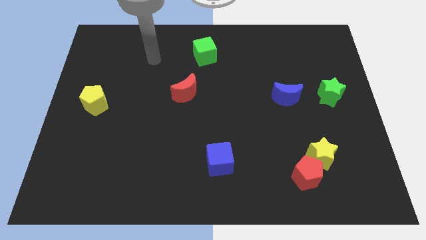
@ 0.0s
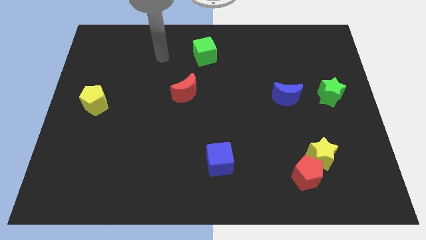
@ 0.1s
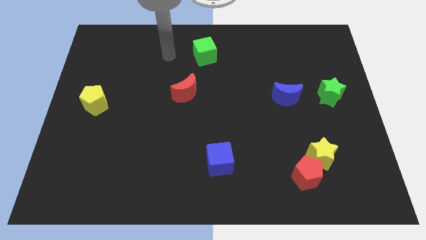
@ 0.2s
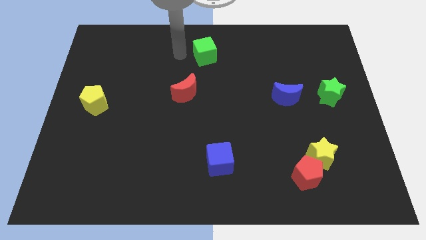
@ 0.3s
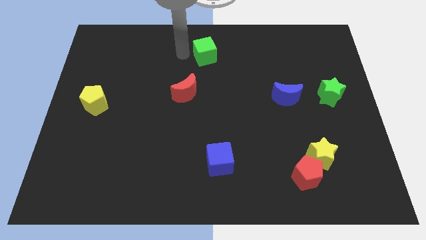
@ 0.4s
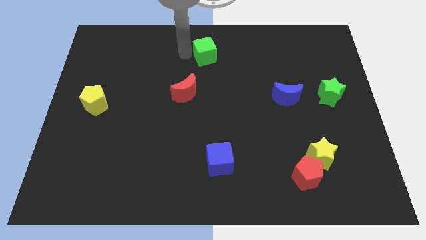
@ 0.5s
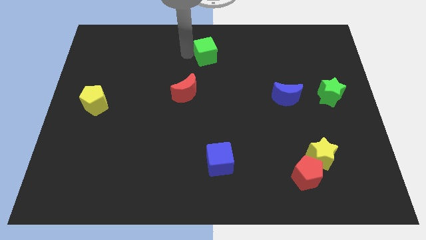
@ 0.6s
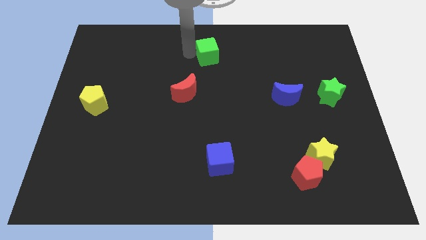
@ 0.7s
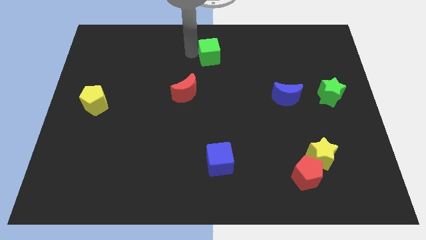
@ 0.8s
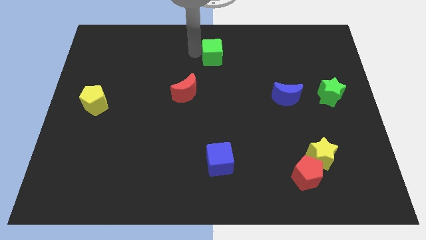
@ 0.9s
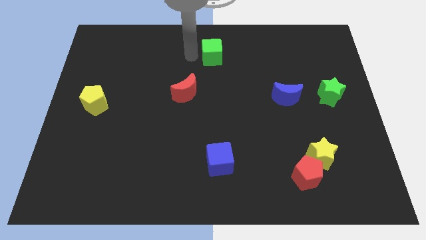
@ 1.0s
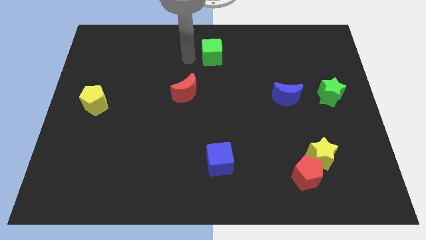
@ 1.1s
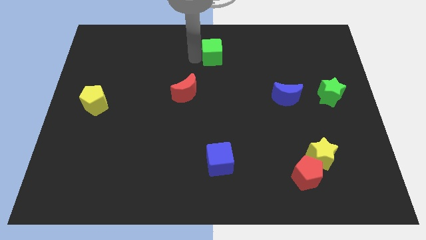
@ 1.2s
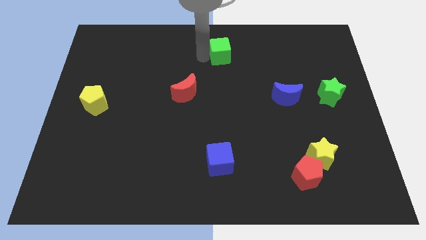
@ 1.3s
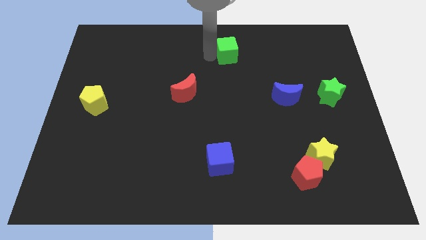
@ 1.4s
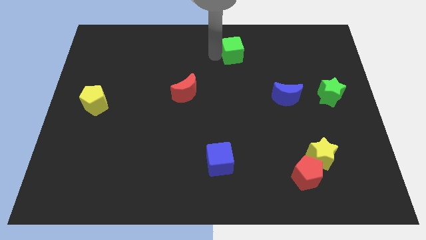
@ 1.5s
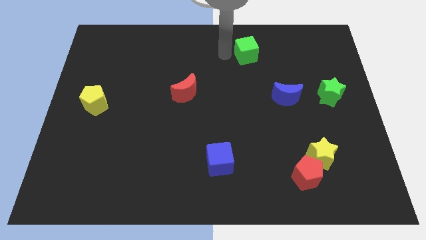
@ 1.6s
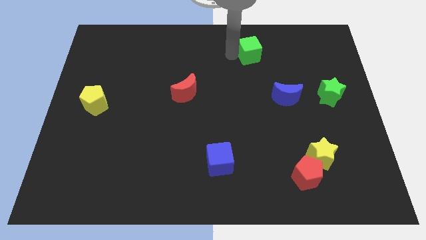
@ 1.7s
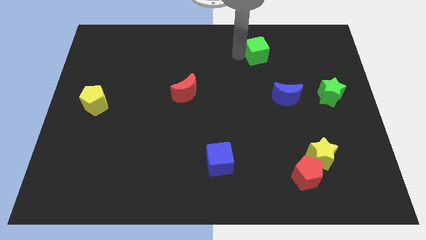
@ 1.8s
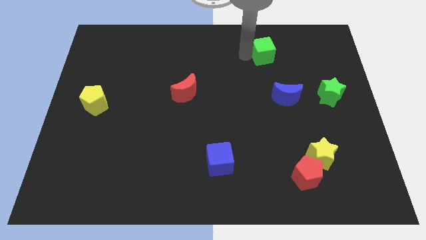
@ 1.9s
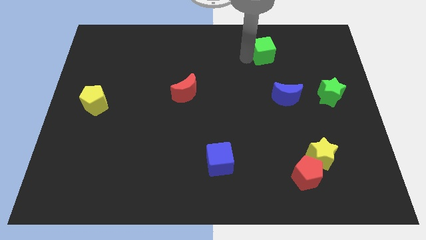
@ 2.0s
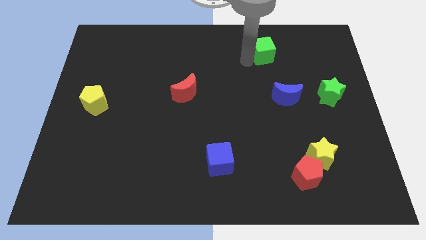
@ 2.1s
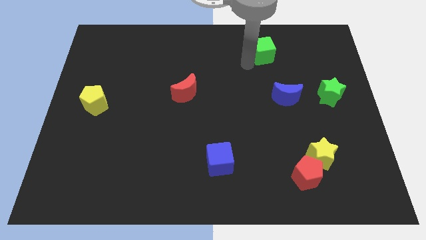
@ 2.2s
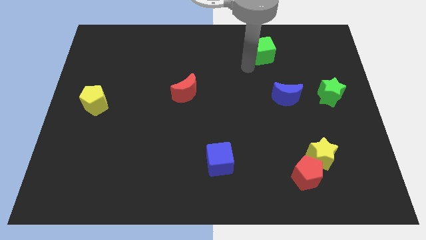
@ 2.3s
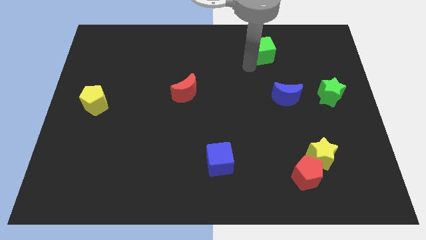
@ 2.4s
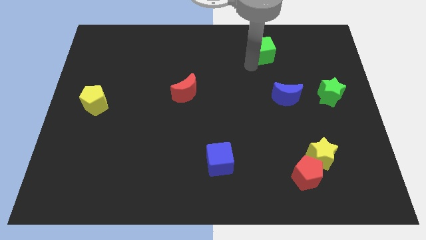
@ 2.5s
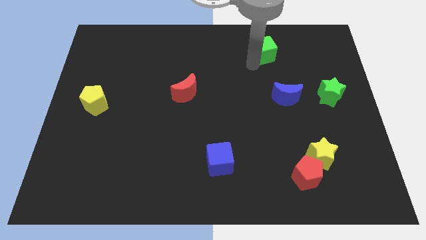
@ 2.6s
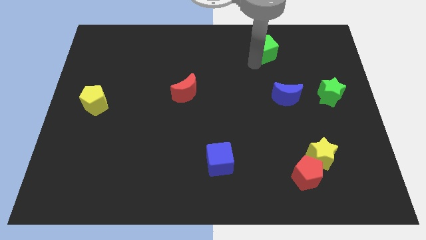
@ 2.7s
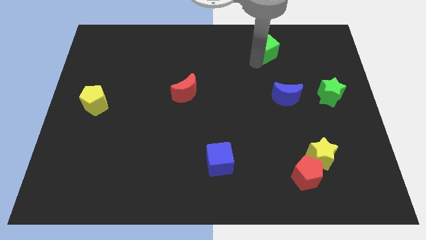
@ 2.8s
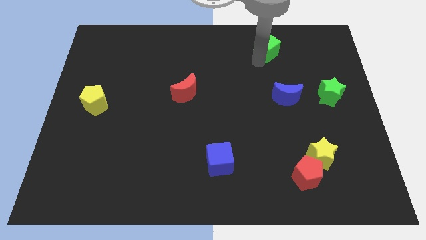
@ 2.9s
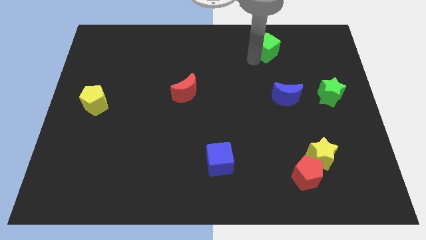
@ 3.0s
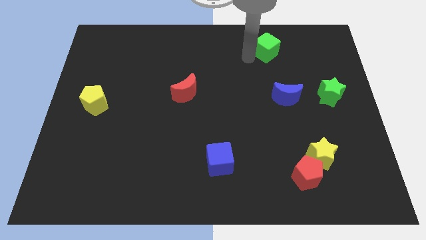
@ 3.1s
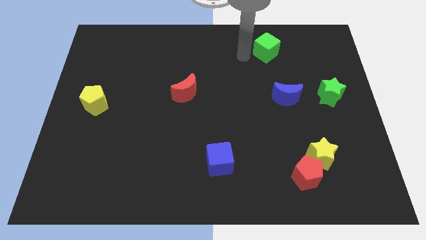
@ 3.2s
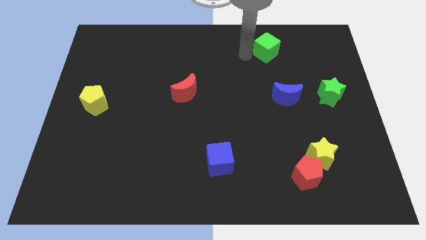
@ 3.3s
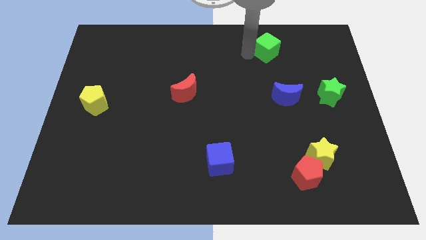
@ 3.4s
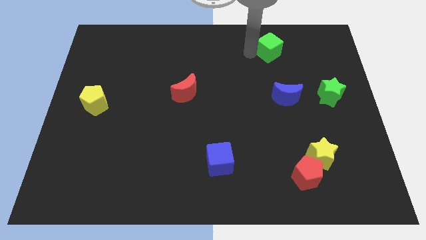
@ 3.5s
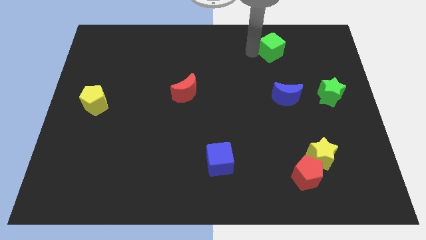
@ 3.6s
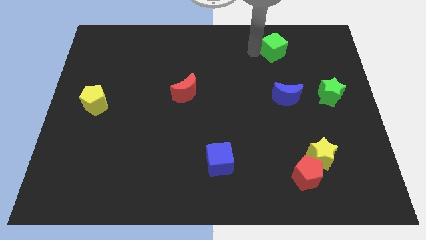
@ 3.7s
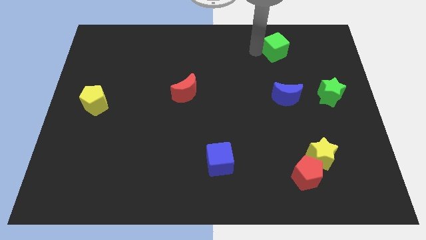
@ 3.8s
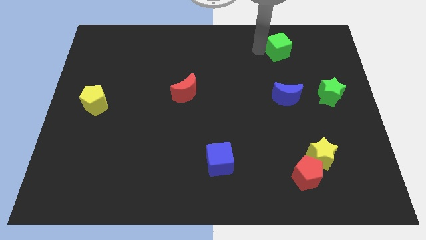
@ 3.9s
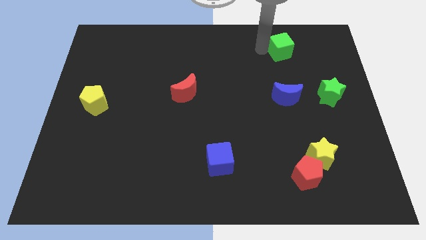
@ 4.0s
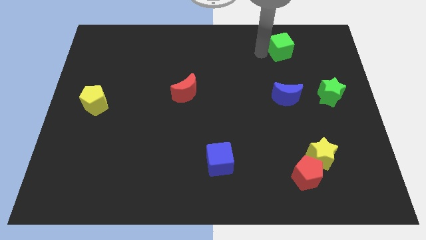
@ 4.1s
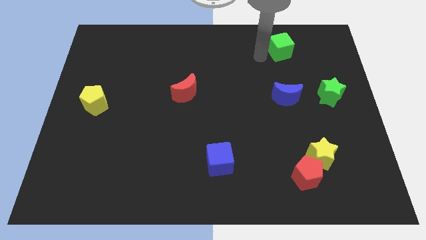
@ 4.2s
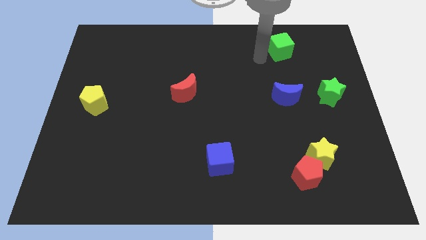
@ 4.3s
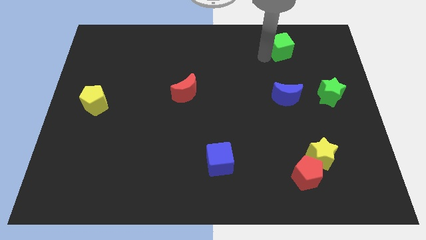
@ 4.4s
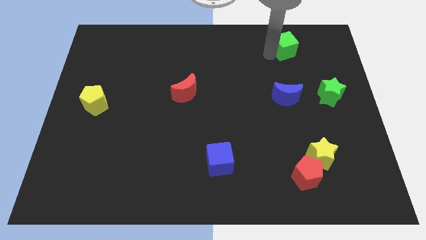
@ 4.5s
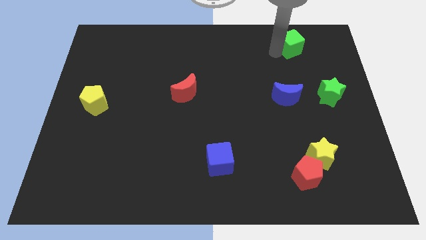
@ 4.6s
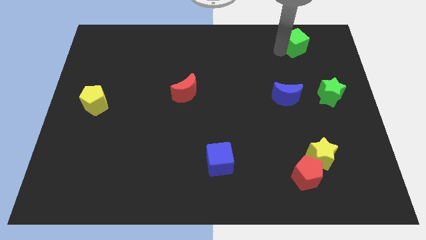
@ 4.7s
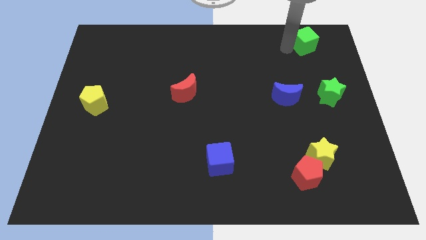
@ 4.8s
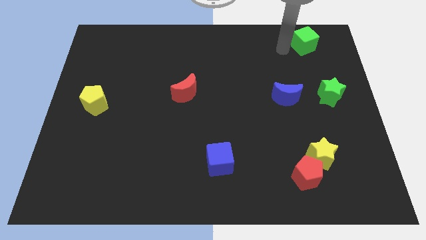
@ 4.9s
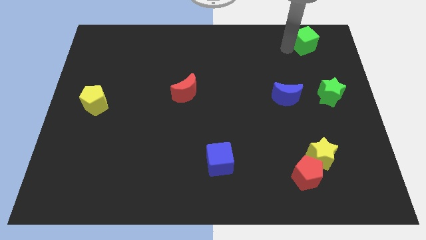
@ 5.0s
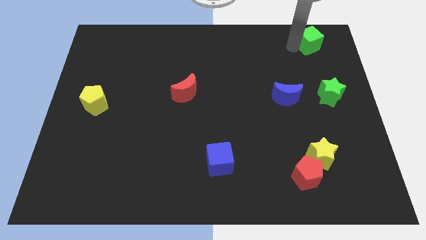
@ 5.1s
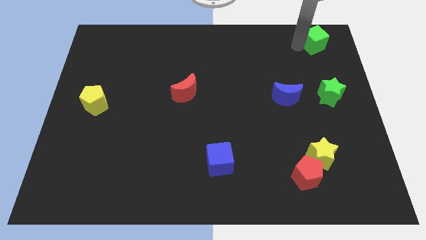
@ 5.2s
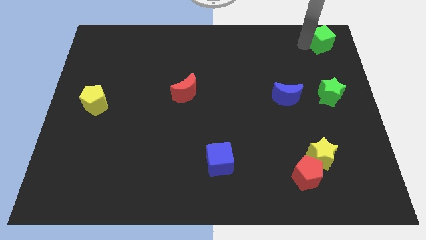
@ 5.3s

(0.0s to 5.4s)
move the green cube to the upper right corner

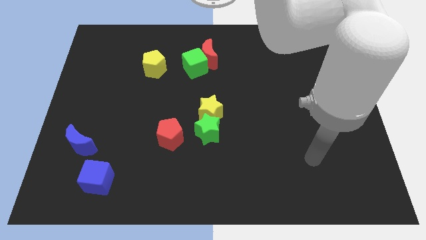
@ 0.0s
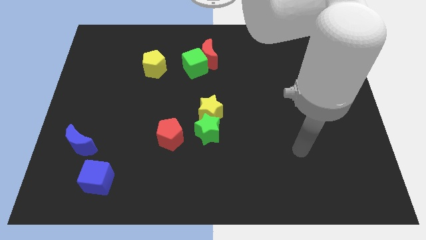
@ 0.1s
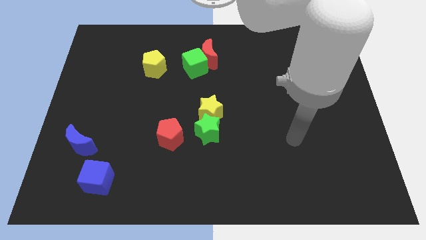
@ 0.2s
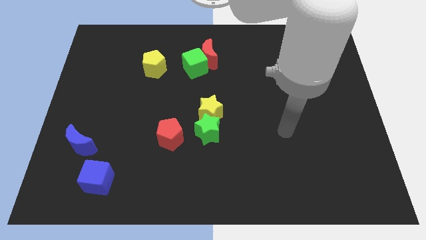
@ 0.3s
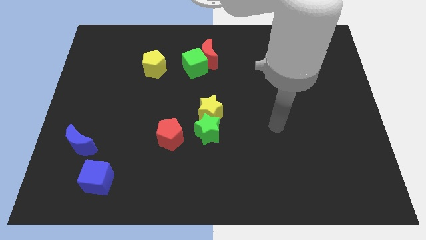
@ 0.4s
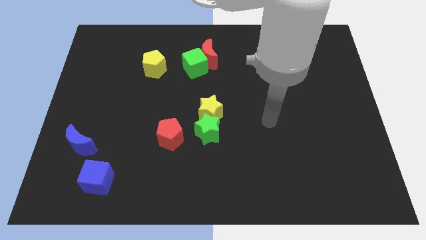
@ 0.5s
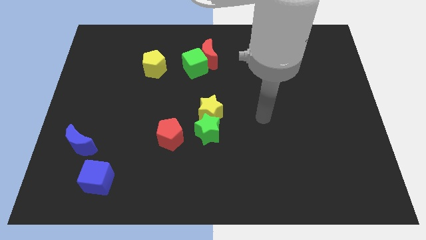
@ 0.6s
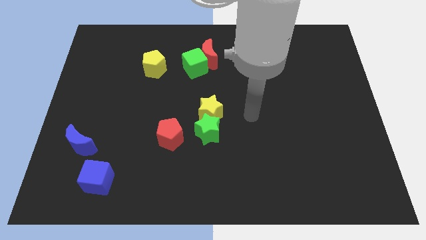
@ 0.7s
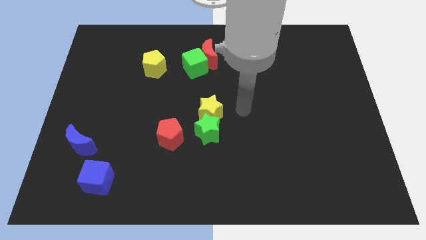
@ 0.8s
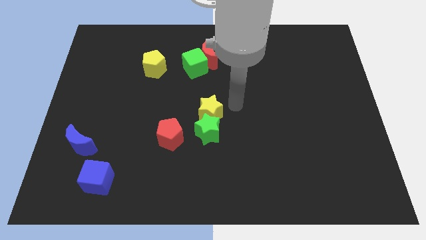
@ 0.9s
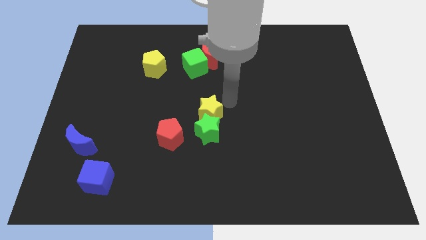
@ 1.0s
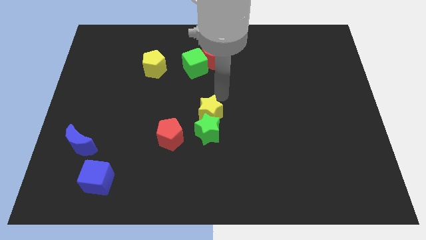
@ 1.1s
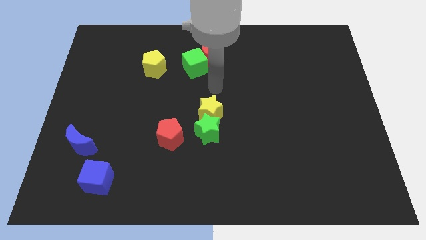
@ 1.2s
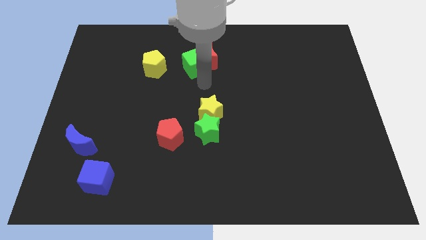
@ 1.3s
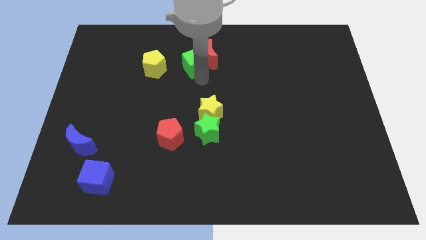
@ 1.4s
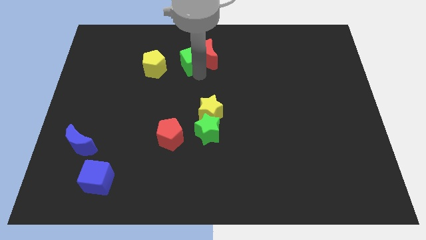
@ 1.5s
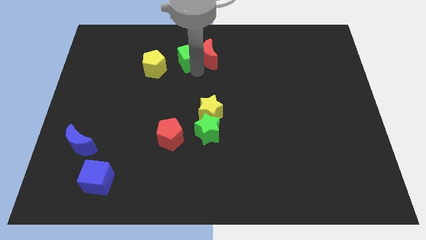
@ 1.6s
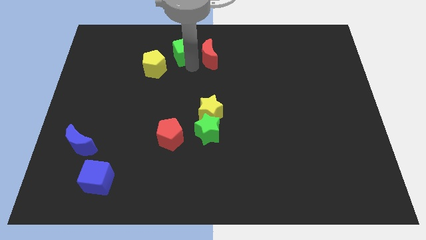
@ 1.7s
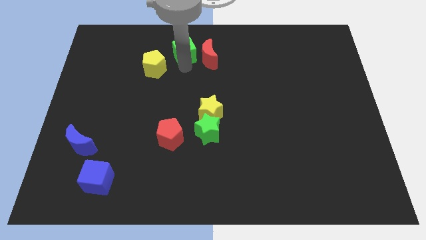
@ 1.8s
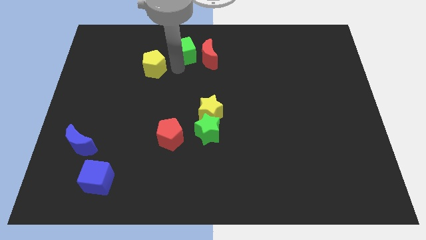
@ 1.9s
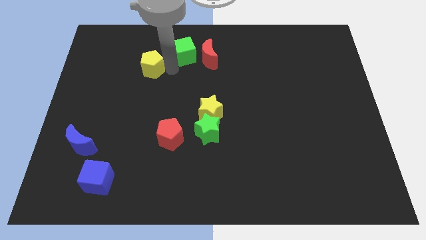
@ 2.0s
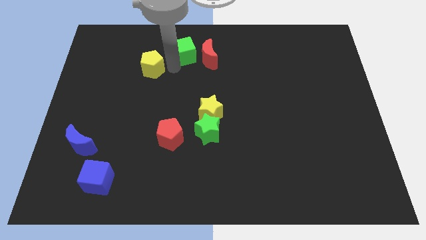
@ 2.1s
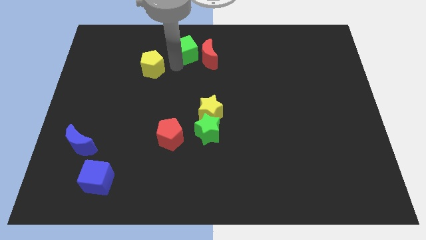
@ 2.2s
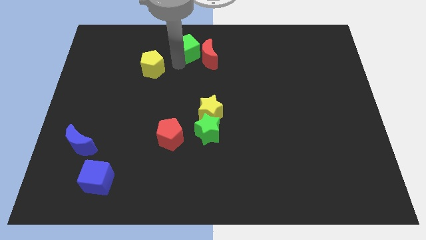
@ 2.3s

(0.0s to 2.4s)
move the green cube to the towards your base

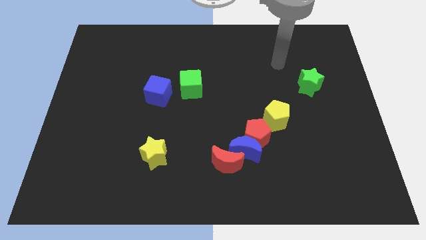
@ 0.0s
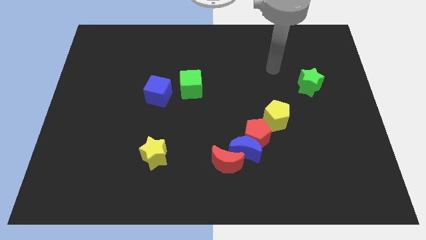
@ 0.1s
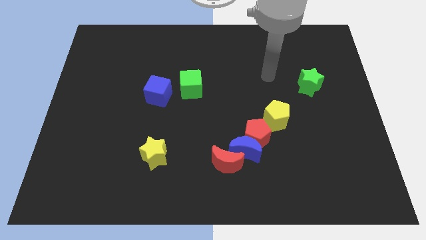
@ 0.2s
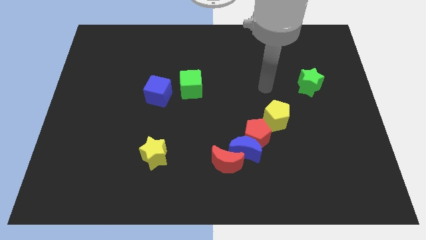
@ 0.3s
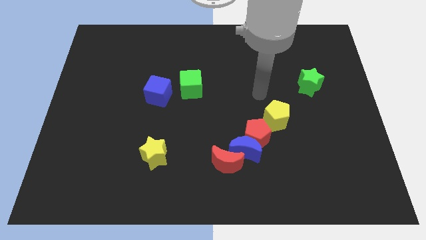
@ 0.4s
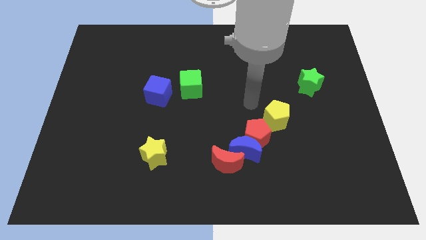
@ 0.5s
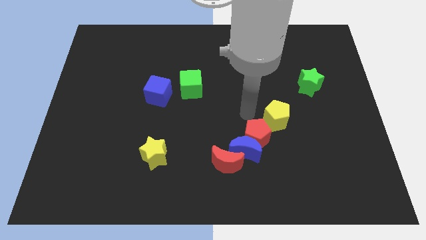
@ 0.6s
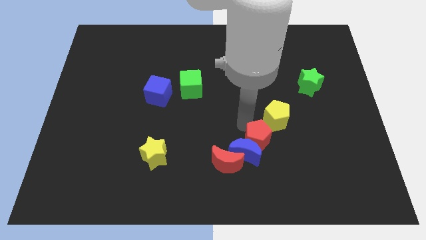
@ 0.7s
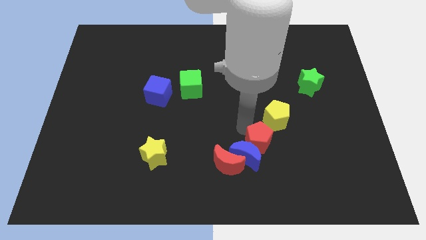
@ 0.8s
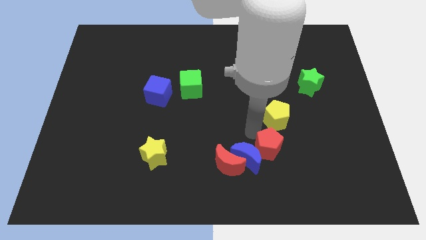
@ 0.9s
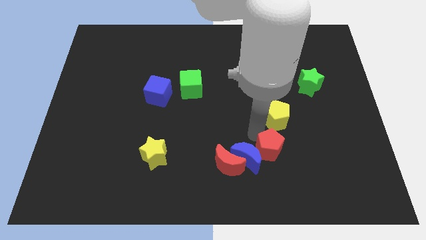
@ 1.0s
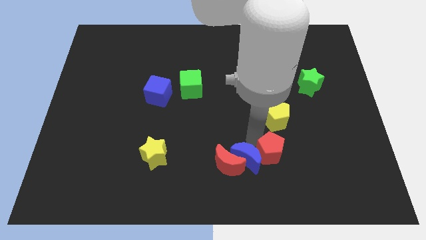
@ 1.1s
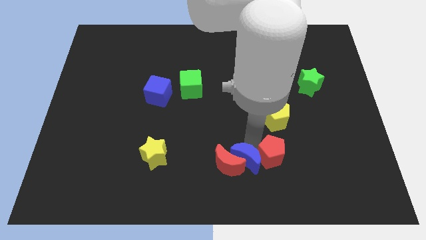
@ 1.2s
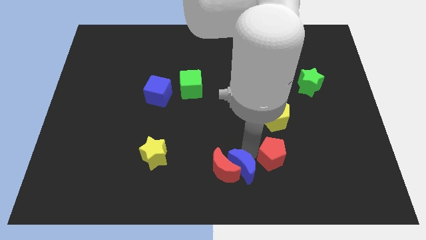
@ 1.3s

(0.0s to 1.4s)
push the blue moon to the bottom
